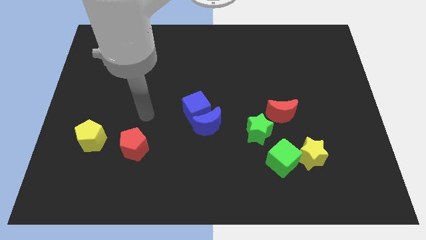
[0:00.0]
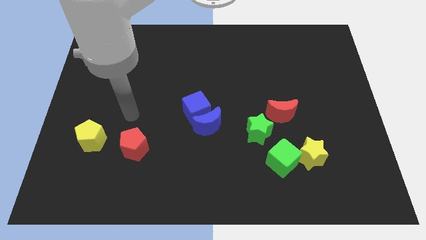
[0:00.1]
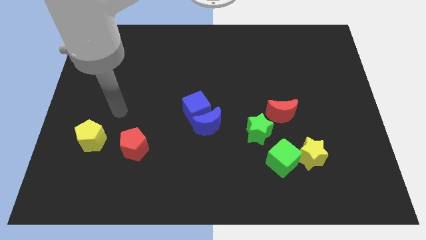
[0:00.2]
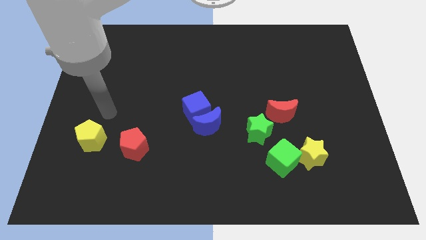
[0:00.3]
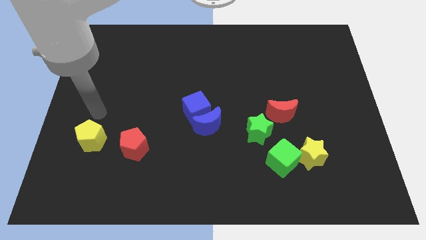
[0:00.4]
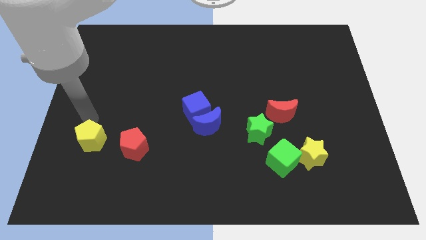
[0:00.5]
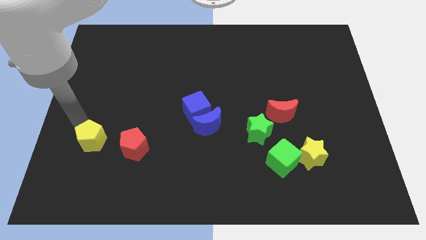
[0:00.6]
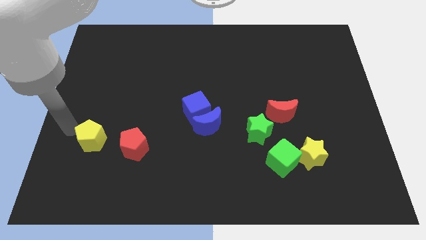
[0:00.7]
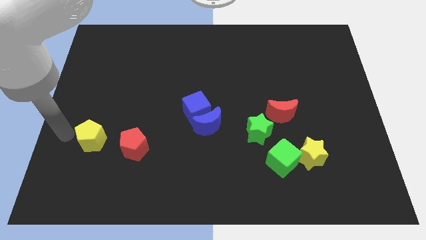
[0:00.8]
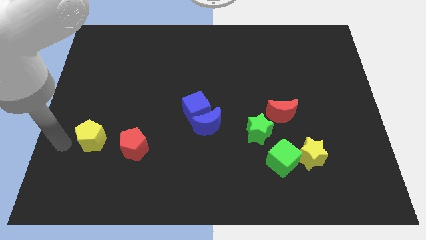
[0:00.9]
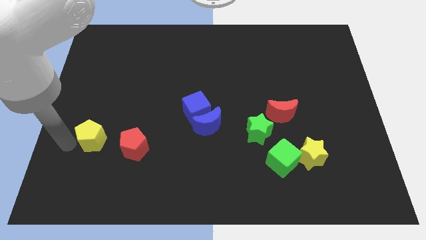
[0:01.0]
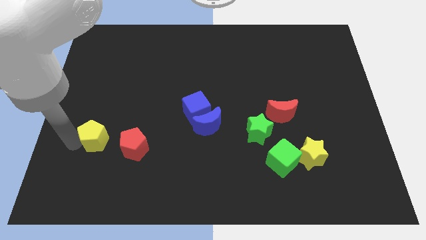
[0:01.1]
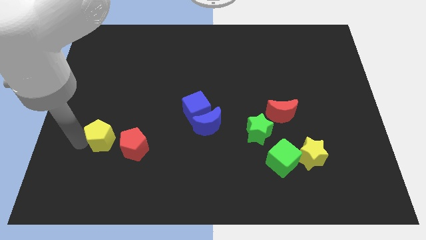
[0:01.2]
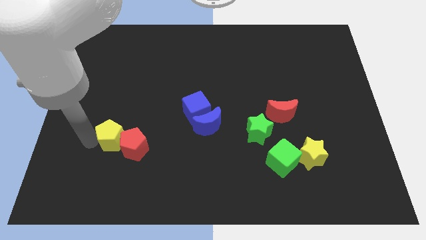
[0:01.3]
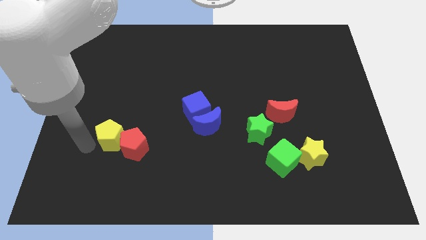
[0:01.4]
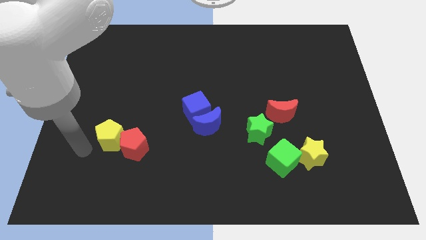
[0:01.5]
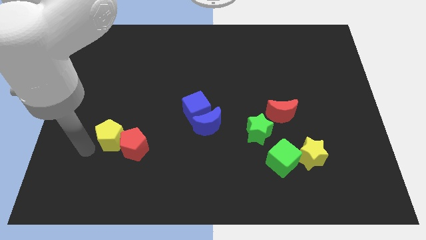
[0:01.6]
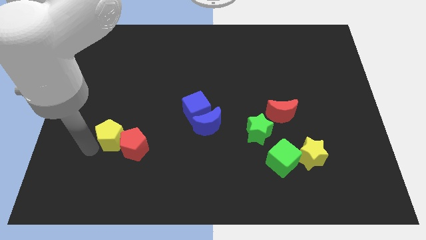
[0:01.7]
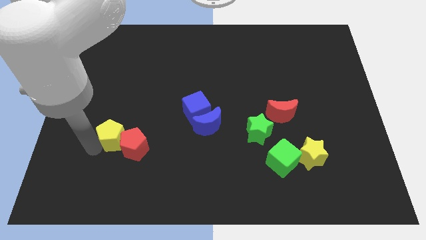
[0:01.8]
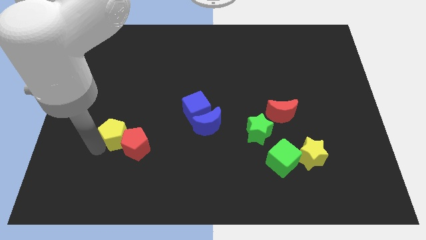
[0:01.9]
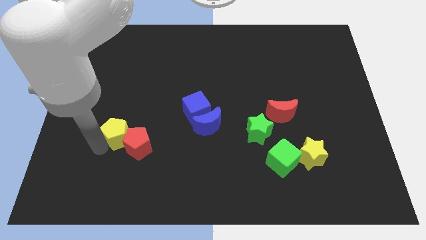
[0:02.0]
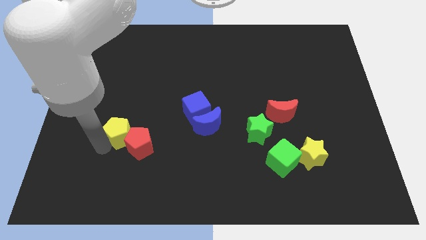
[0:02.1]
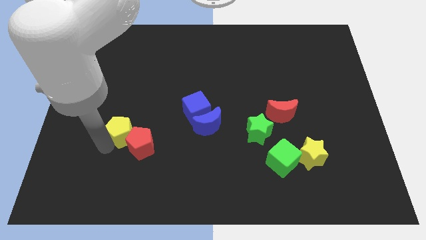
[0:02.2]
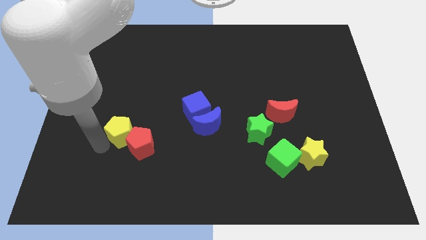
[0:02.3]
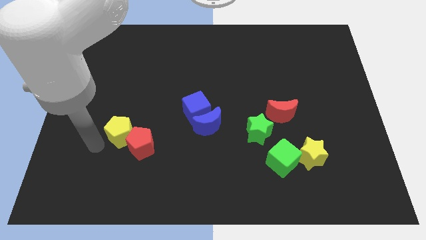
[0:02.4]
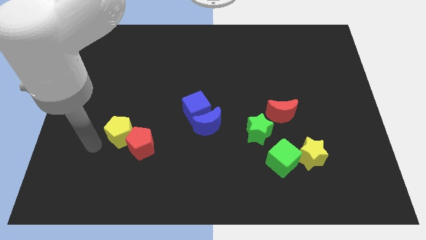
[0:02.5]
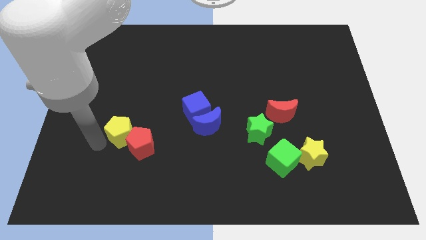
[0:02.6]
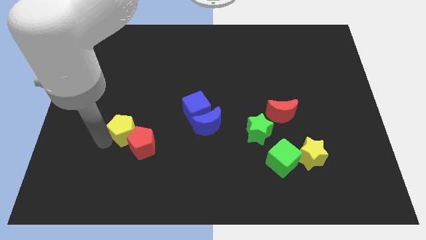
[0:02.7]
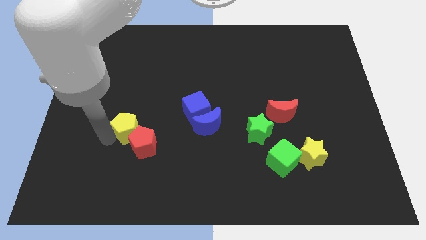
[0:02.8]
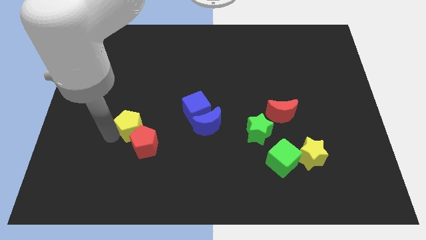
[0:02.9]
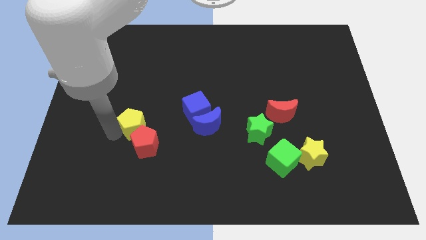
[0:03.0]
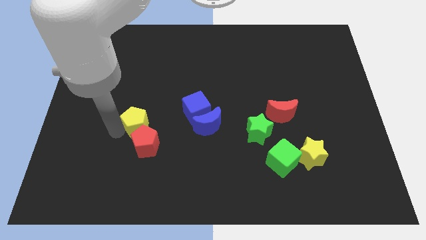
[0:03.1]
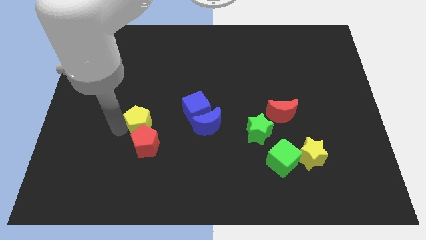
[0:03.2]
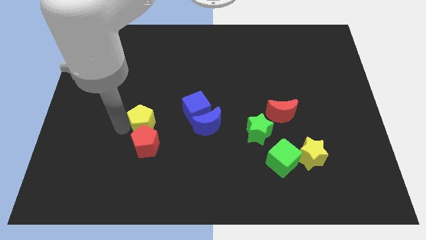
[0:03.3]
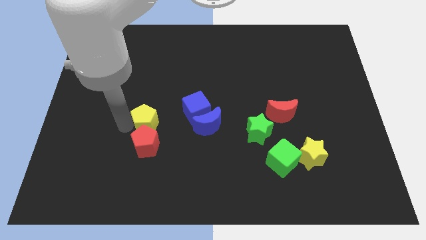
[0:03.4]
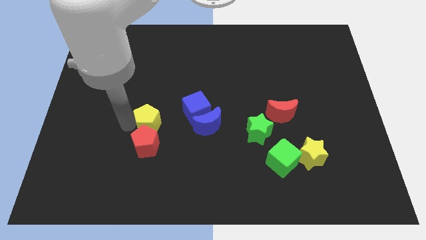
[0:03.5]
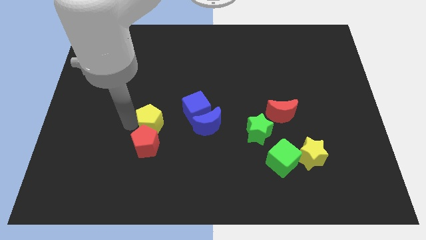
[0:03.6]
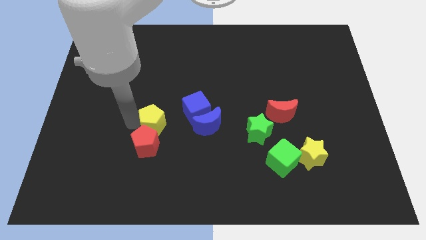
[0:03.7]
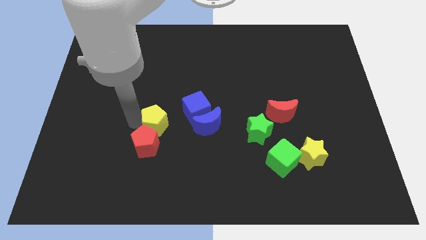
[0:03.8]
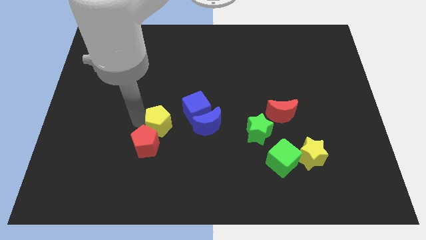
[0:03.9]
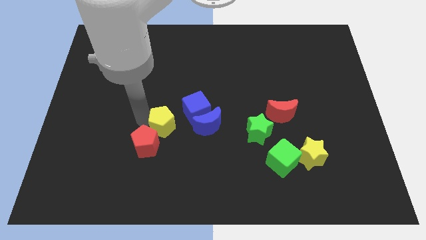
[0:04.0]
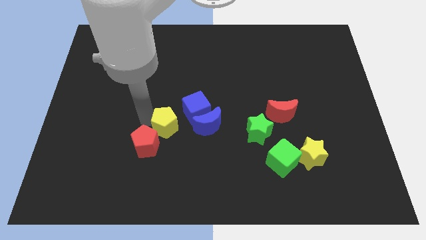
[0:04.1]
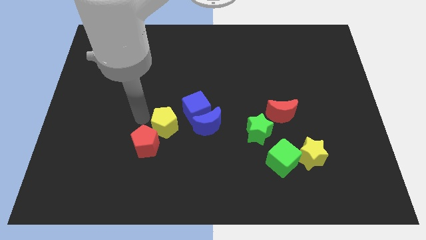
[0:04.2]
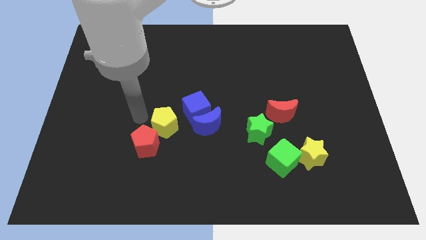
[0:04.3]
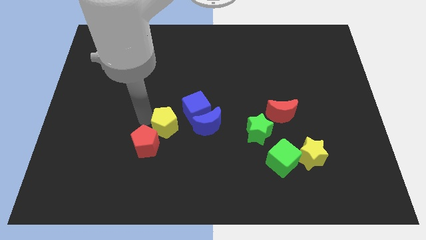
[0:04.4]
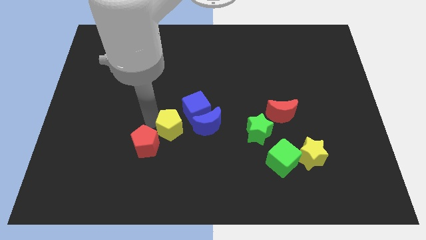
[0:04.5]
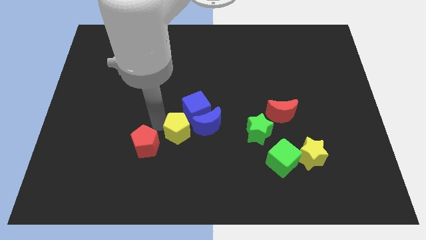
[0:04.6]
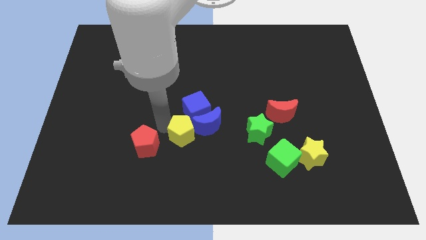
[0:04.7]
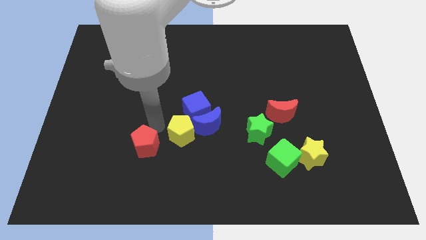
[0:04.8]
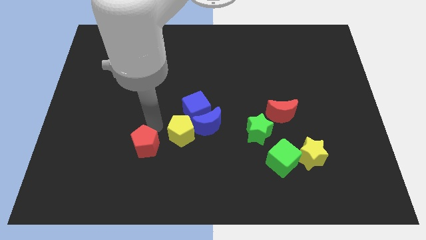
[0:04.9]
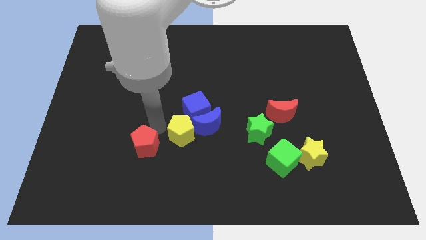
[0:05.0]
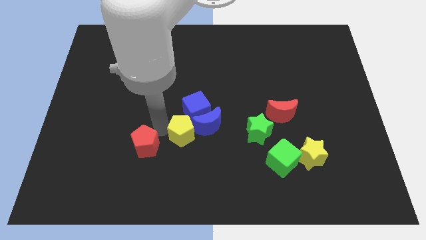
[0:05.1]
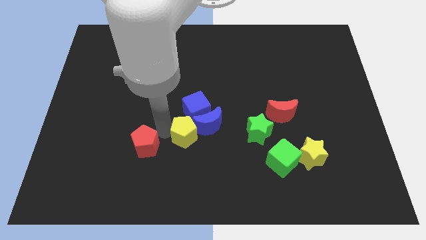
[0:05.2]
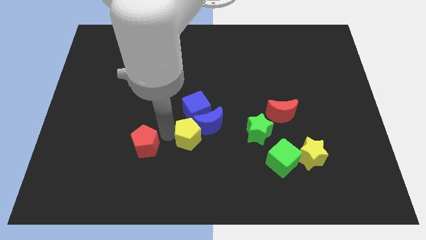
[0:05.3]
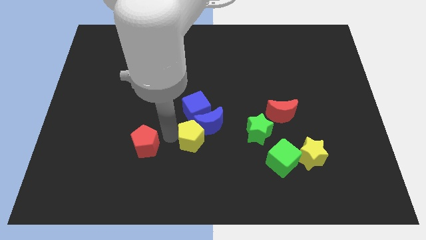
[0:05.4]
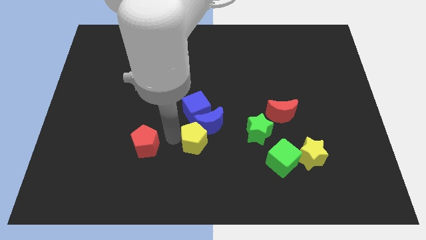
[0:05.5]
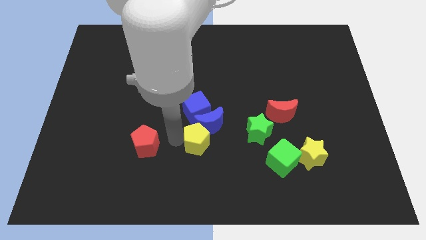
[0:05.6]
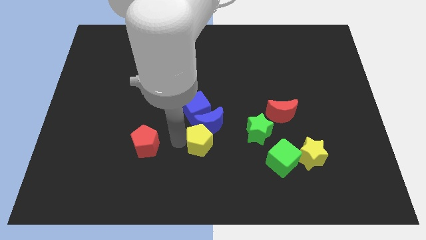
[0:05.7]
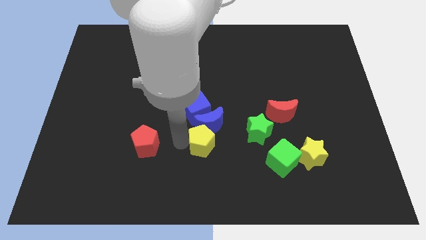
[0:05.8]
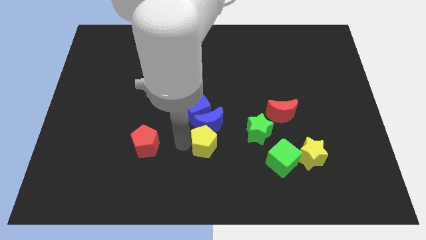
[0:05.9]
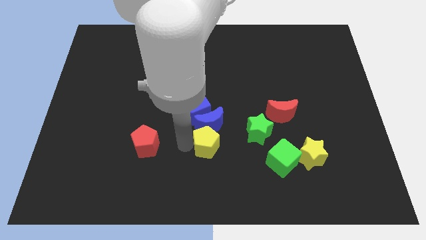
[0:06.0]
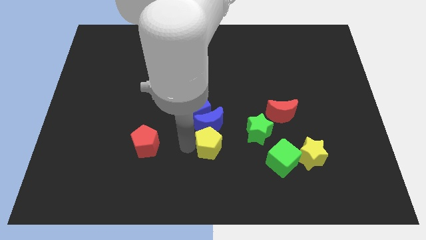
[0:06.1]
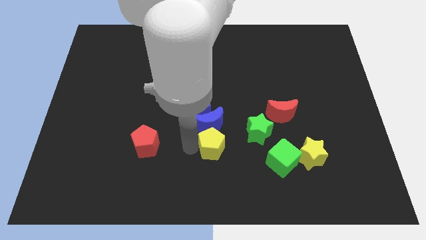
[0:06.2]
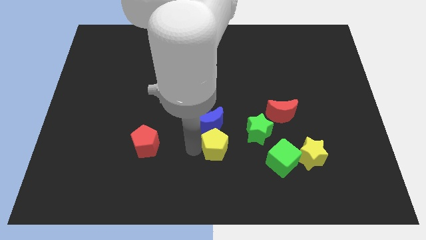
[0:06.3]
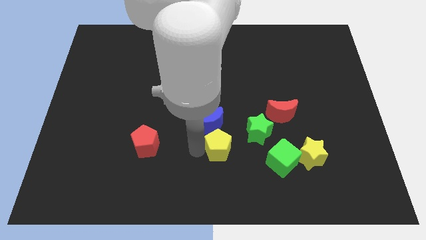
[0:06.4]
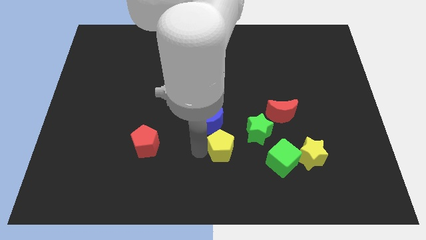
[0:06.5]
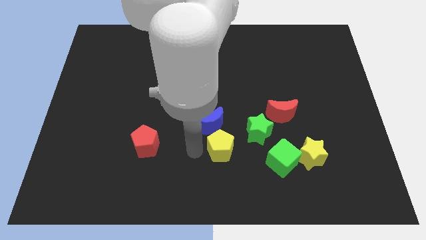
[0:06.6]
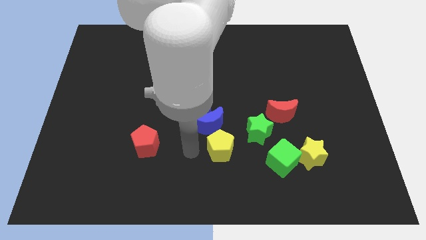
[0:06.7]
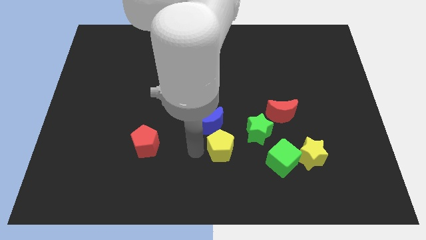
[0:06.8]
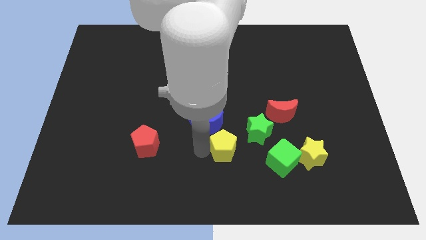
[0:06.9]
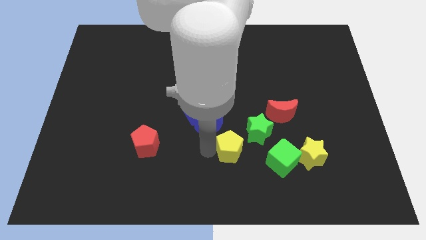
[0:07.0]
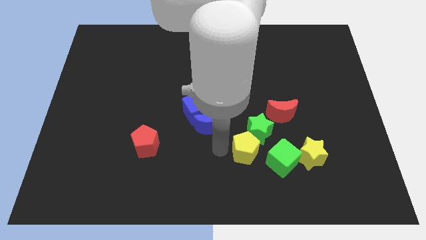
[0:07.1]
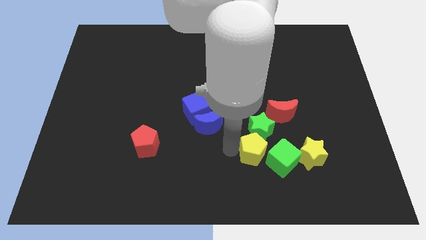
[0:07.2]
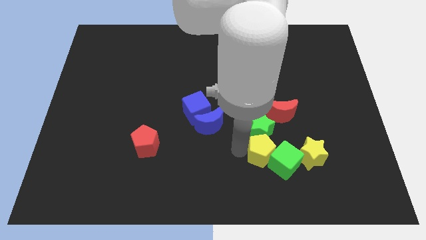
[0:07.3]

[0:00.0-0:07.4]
push the yellow pentagon next to the green cube

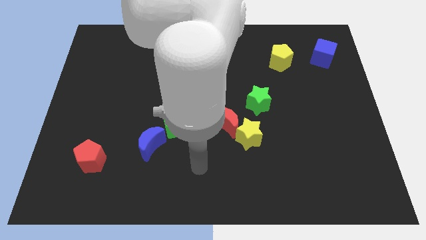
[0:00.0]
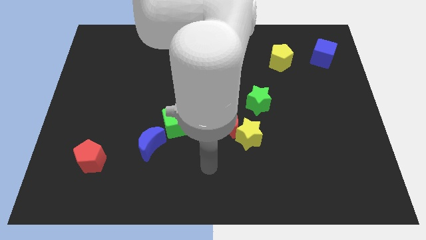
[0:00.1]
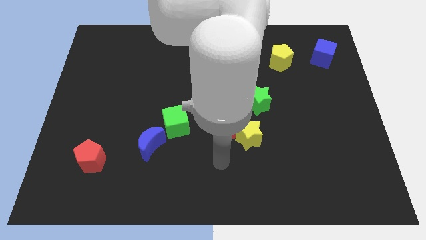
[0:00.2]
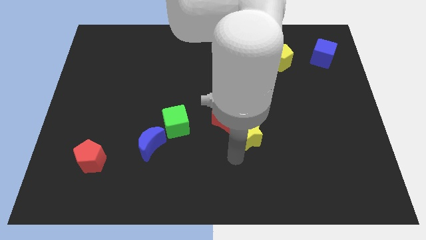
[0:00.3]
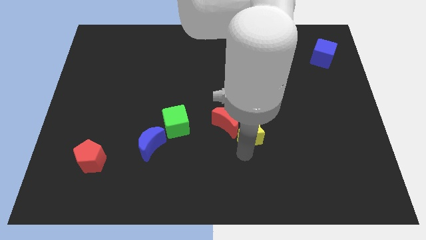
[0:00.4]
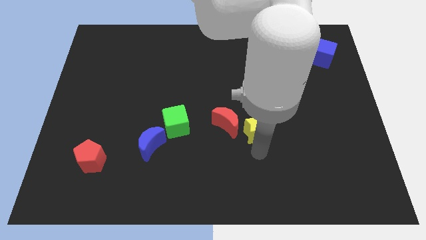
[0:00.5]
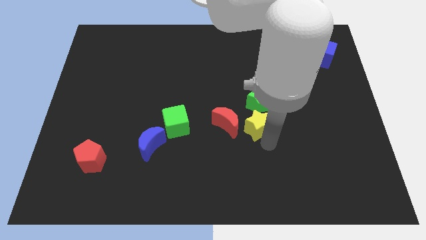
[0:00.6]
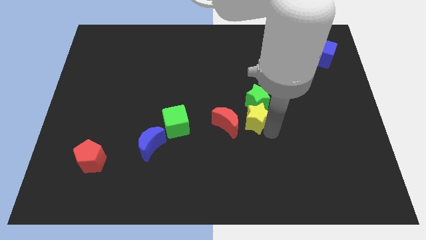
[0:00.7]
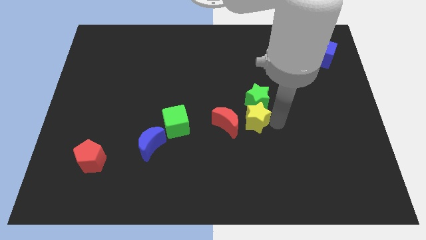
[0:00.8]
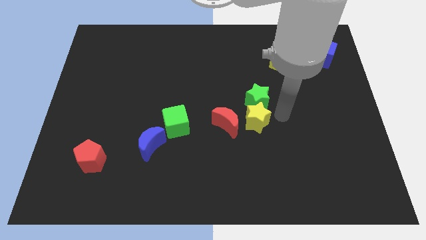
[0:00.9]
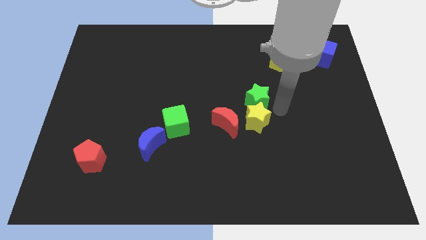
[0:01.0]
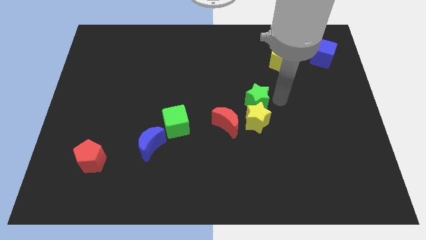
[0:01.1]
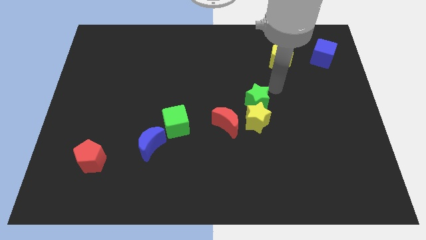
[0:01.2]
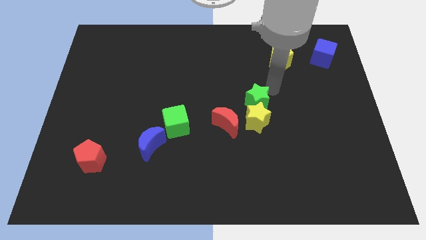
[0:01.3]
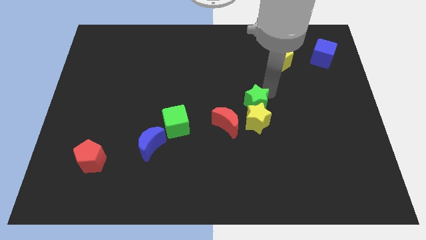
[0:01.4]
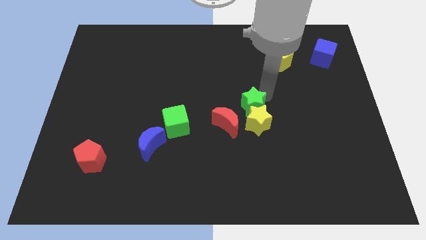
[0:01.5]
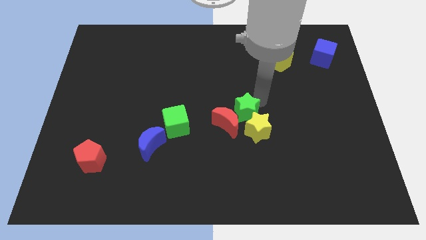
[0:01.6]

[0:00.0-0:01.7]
put the green star next to the red moon
